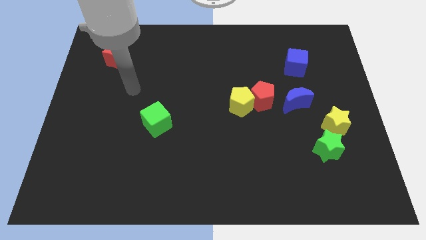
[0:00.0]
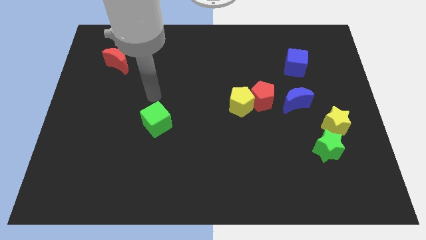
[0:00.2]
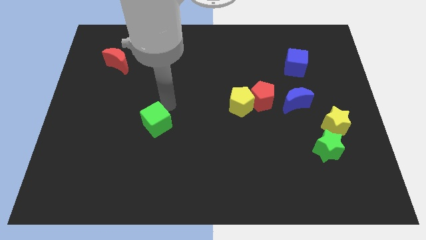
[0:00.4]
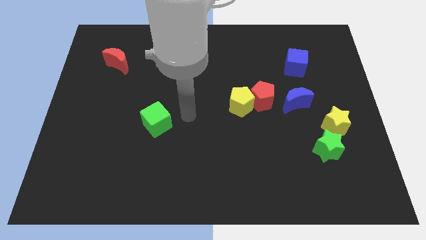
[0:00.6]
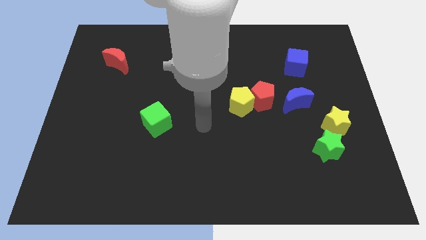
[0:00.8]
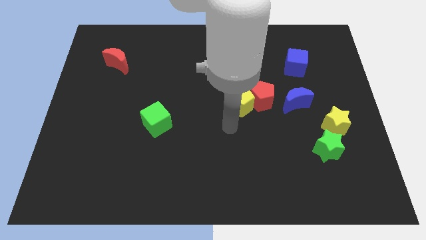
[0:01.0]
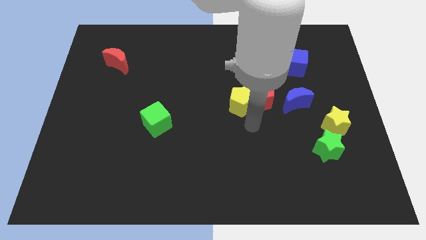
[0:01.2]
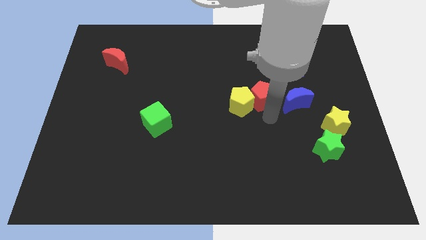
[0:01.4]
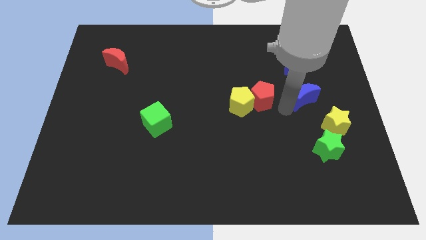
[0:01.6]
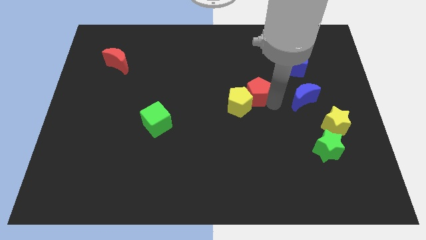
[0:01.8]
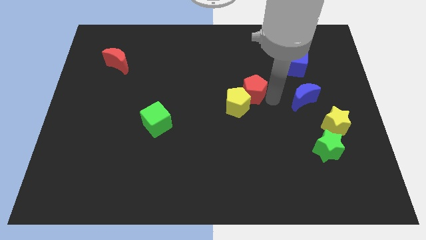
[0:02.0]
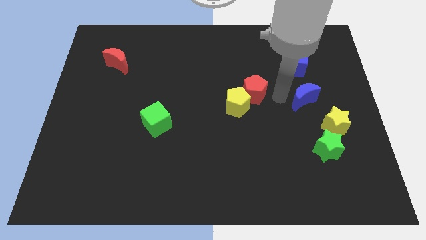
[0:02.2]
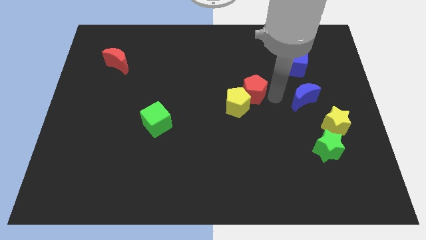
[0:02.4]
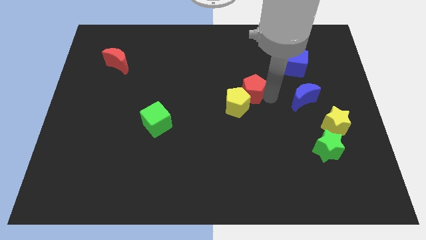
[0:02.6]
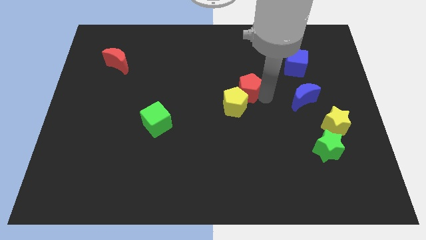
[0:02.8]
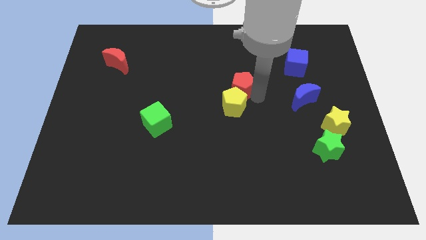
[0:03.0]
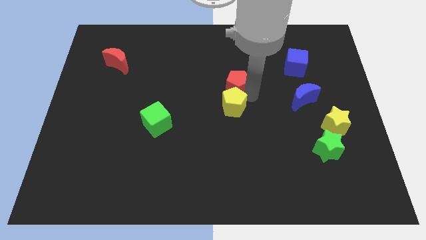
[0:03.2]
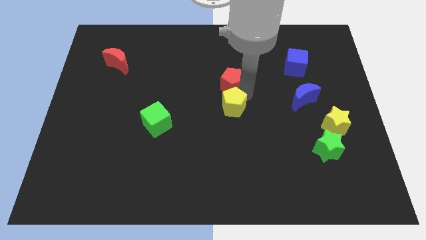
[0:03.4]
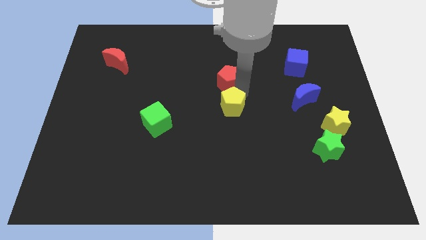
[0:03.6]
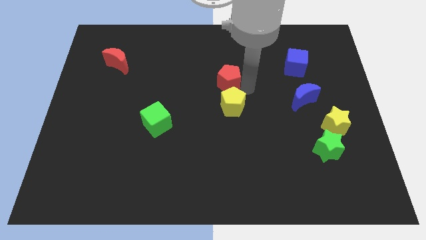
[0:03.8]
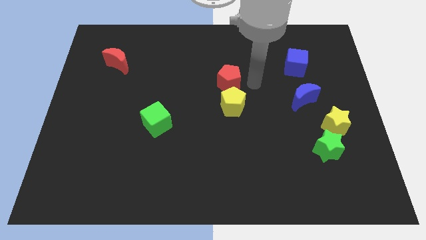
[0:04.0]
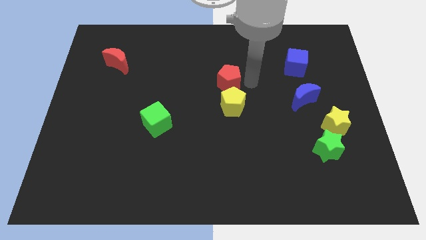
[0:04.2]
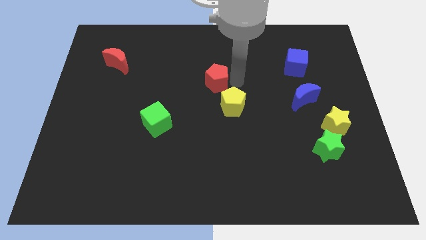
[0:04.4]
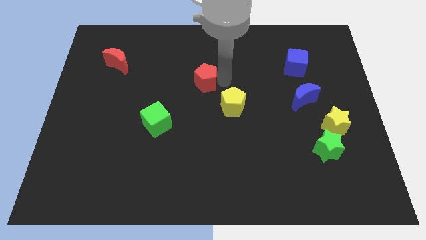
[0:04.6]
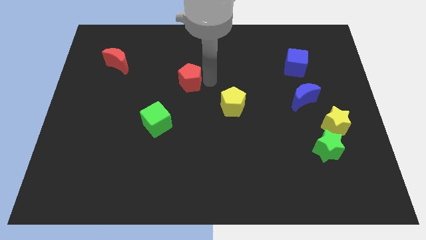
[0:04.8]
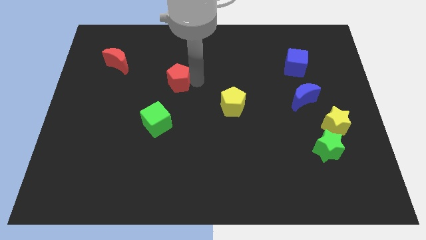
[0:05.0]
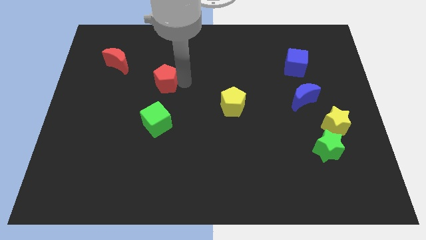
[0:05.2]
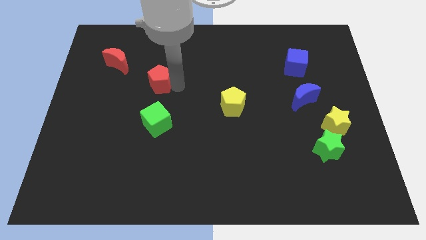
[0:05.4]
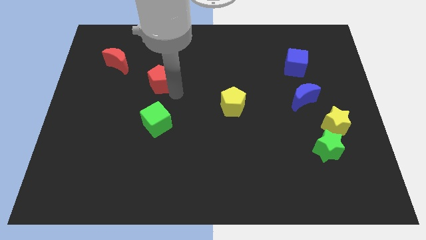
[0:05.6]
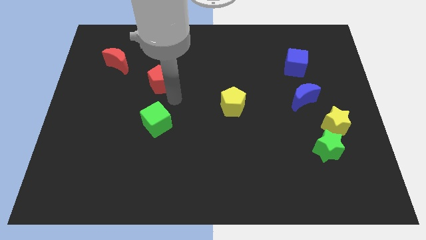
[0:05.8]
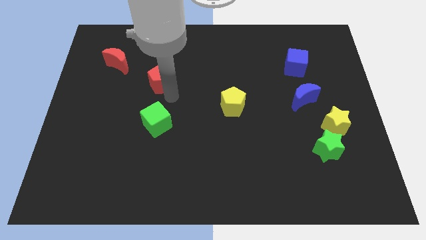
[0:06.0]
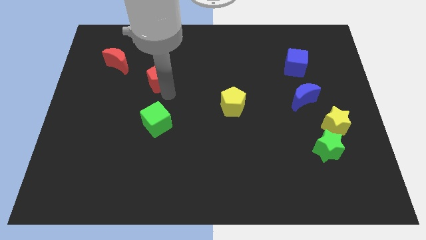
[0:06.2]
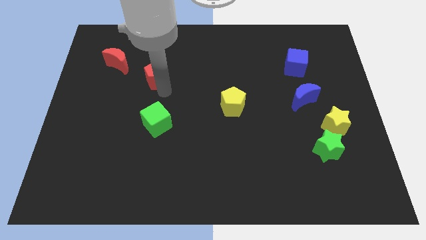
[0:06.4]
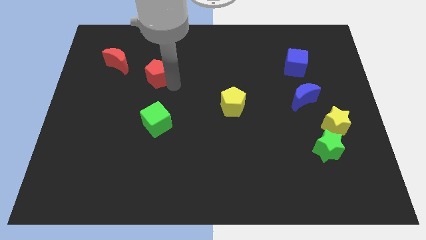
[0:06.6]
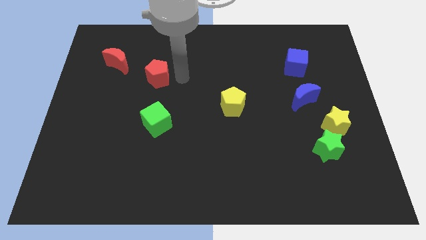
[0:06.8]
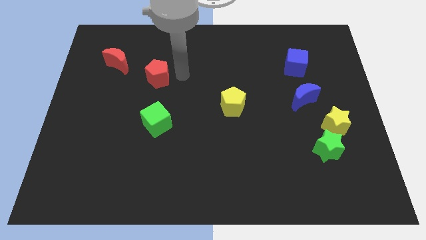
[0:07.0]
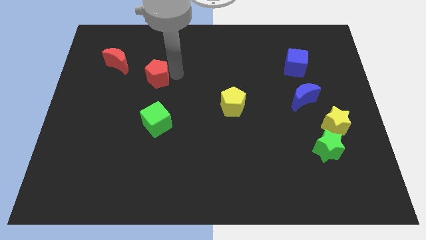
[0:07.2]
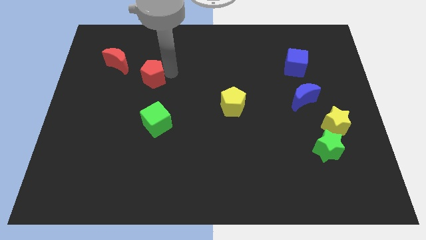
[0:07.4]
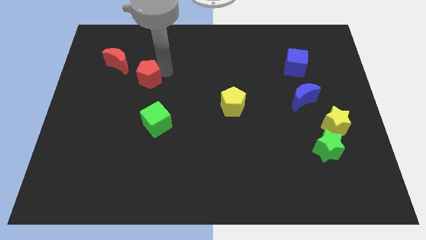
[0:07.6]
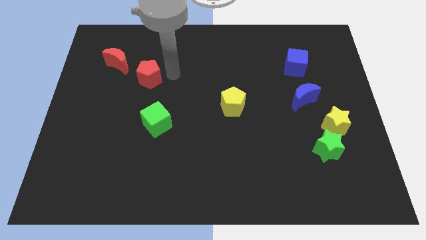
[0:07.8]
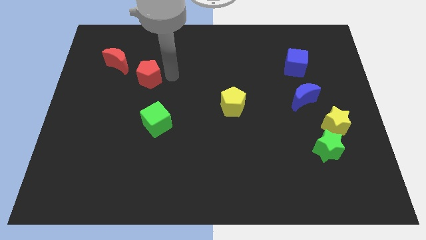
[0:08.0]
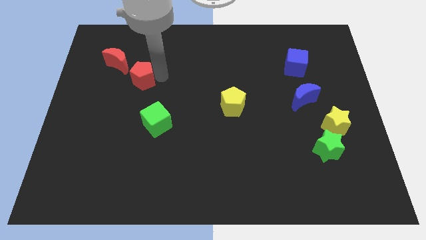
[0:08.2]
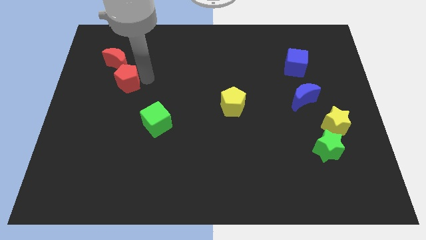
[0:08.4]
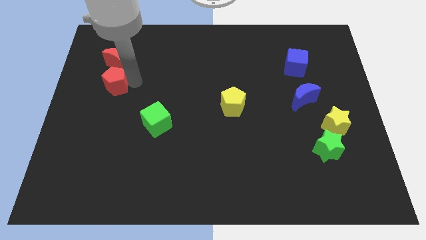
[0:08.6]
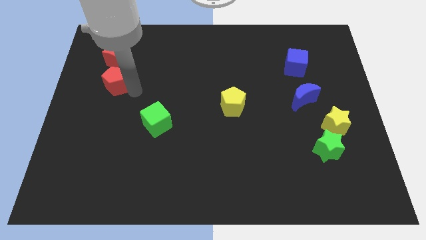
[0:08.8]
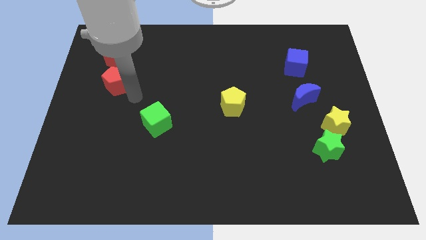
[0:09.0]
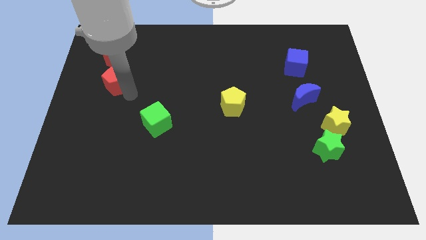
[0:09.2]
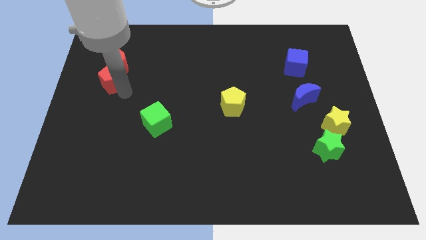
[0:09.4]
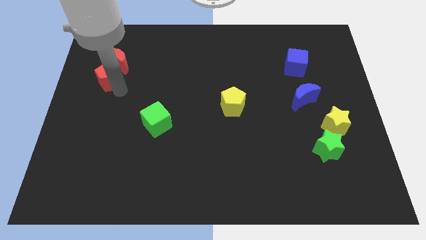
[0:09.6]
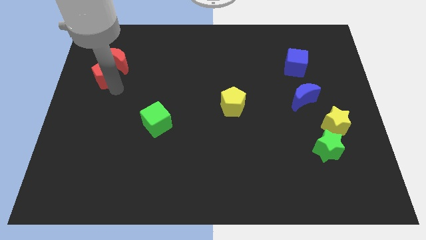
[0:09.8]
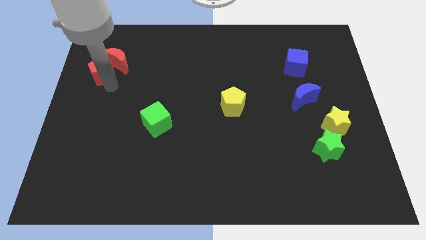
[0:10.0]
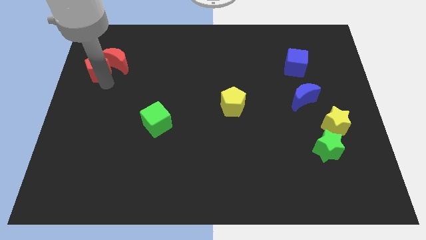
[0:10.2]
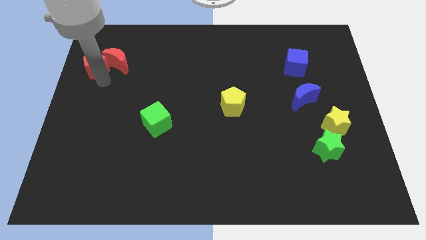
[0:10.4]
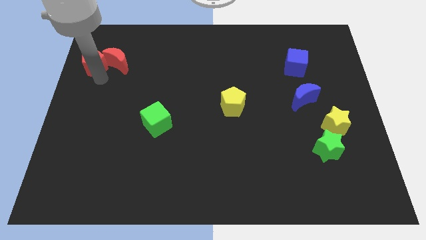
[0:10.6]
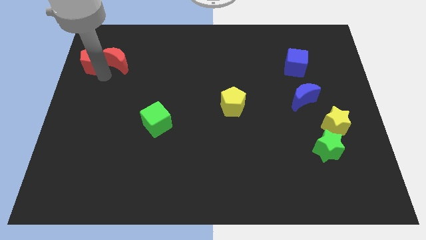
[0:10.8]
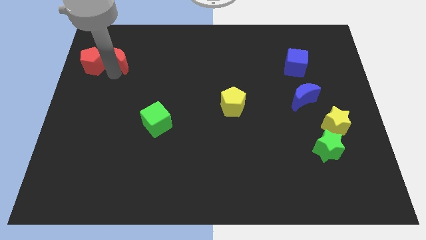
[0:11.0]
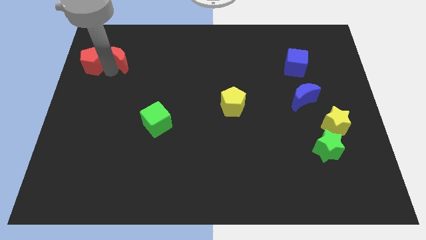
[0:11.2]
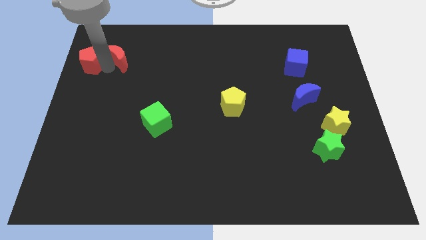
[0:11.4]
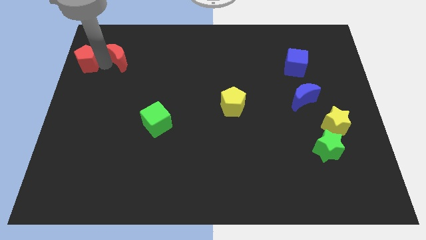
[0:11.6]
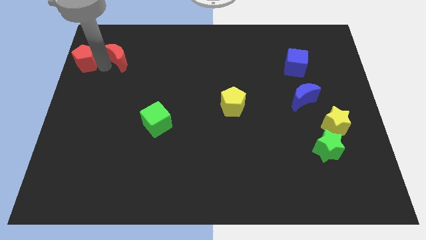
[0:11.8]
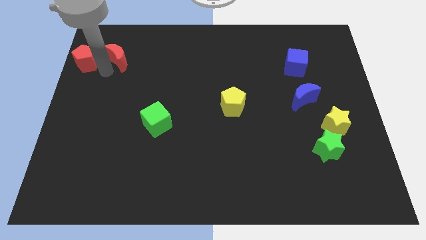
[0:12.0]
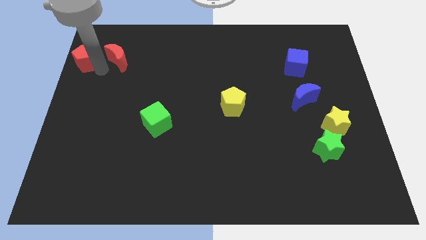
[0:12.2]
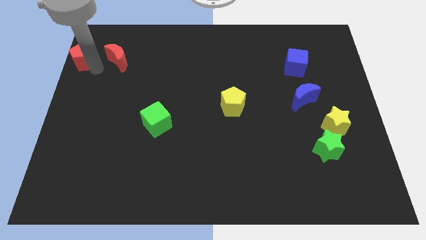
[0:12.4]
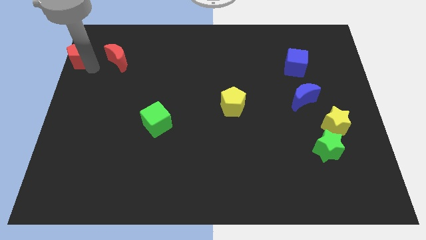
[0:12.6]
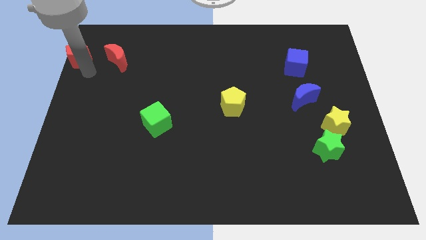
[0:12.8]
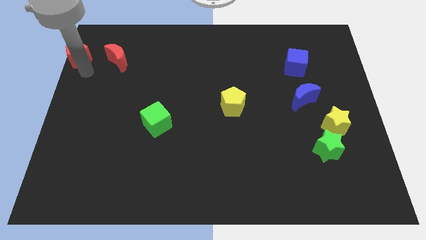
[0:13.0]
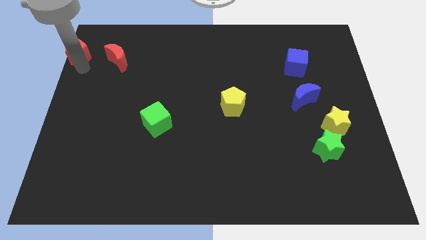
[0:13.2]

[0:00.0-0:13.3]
put the red pentagon to the top left of the board
